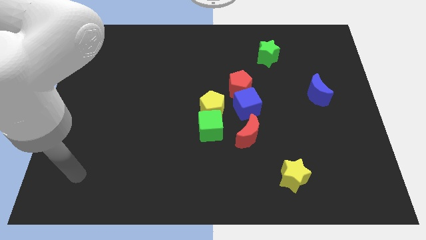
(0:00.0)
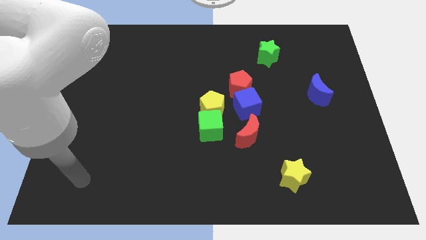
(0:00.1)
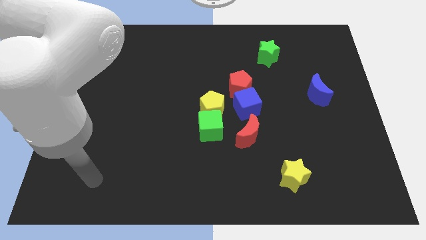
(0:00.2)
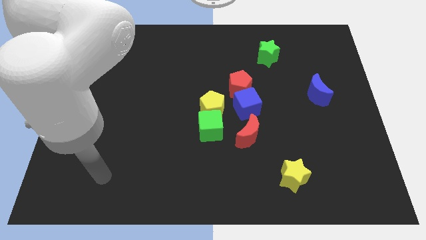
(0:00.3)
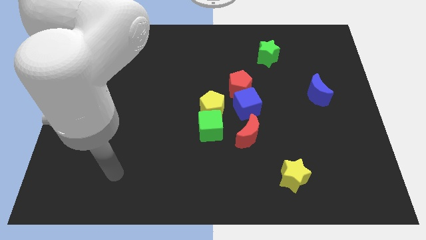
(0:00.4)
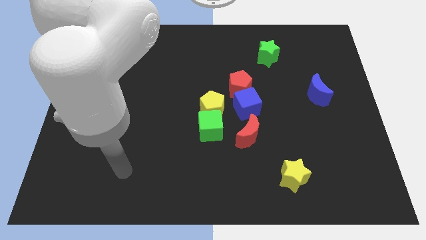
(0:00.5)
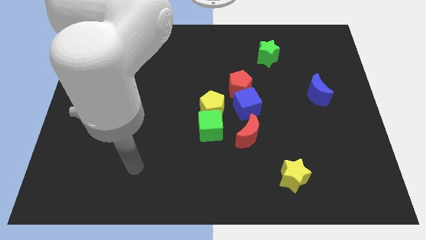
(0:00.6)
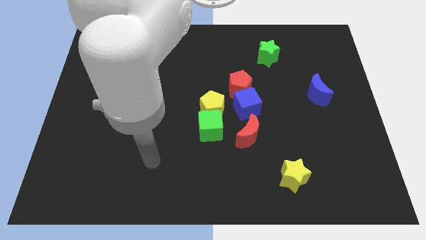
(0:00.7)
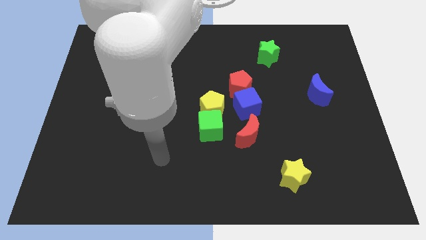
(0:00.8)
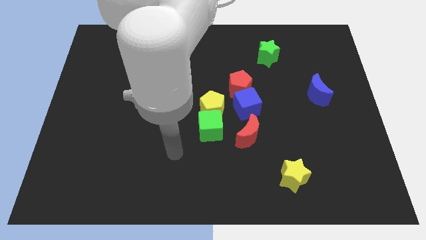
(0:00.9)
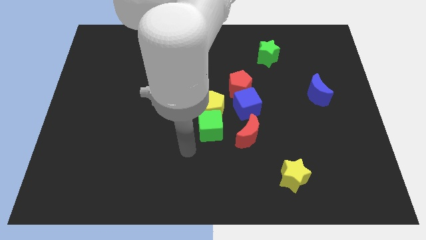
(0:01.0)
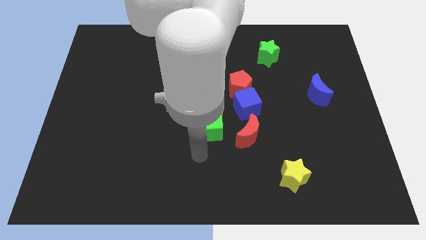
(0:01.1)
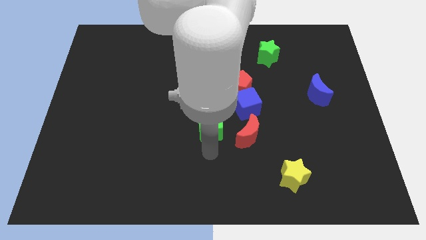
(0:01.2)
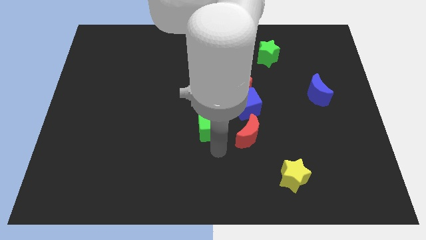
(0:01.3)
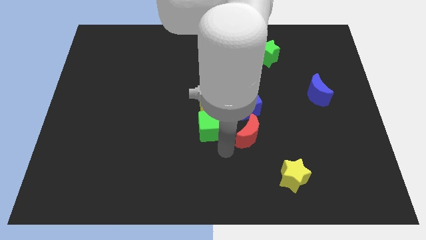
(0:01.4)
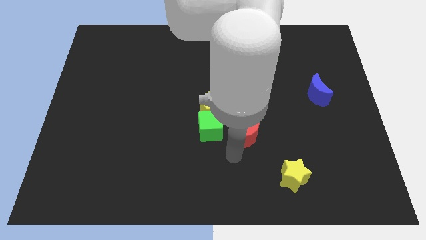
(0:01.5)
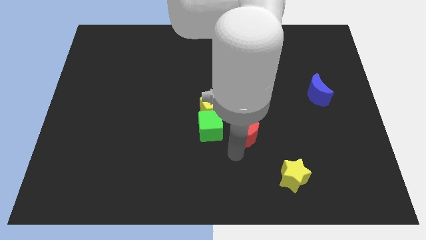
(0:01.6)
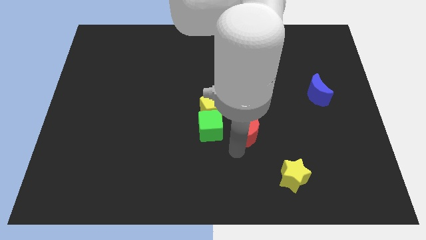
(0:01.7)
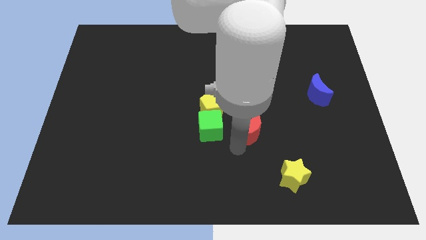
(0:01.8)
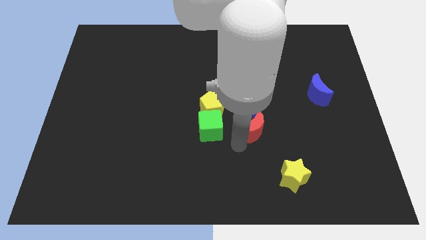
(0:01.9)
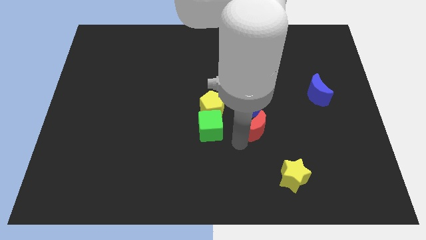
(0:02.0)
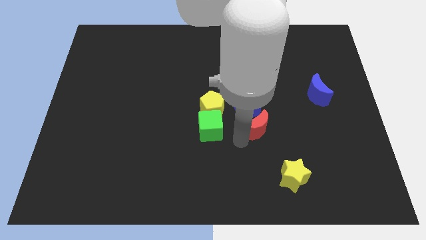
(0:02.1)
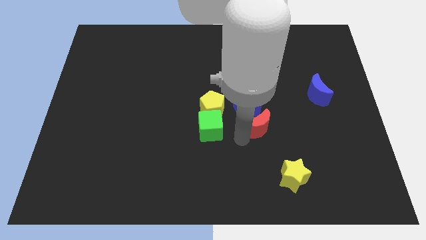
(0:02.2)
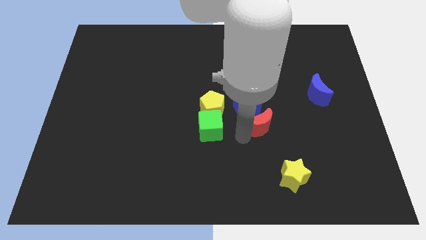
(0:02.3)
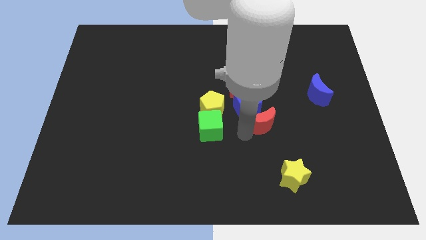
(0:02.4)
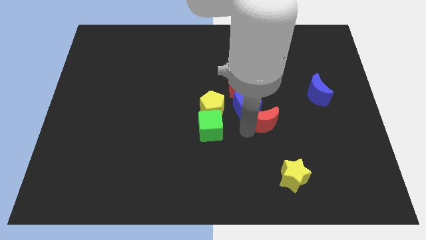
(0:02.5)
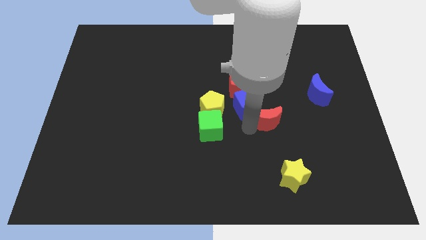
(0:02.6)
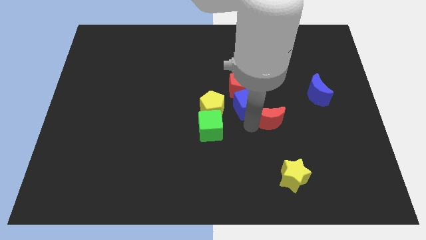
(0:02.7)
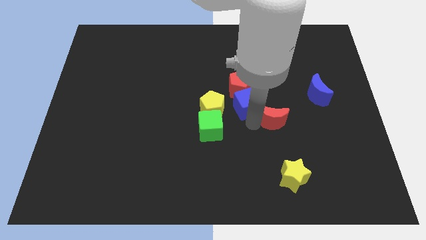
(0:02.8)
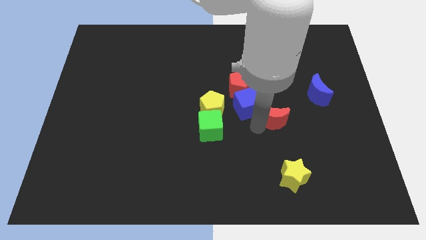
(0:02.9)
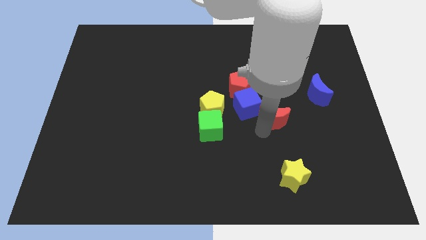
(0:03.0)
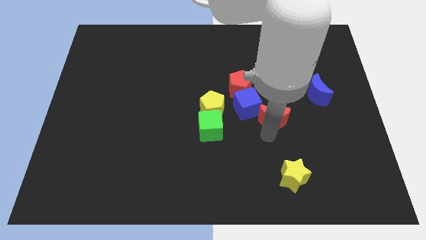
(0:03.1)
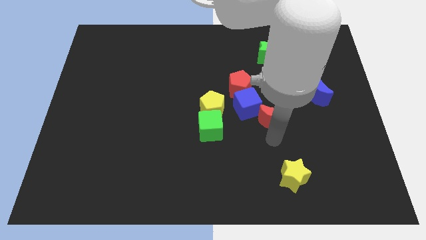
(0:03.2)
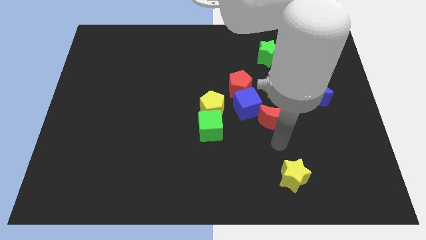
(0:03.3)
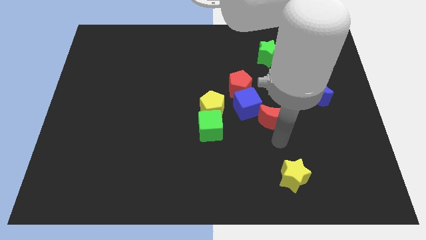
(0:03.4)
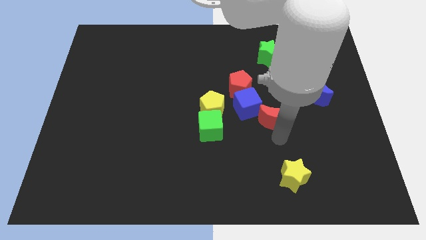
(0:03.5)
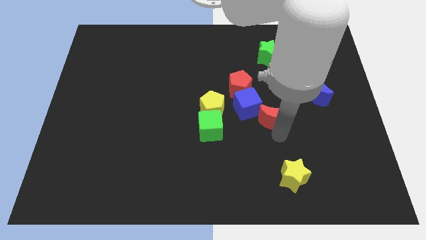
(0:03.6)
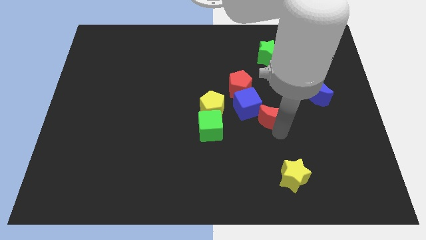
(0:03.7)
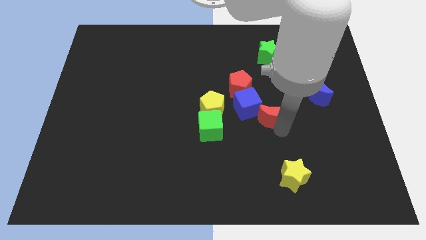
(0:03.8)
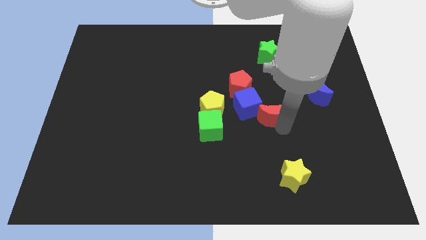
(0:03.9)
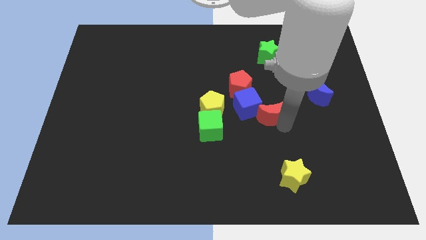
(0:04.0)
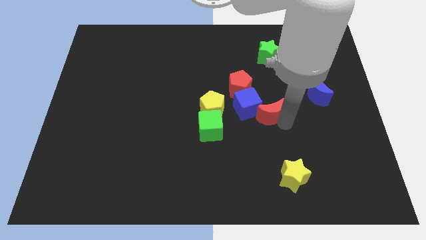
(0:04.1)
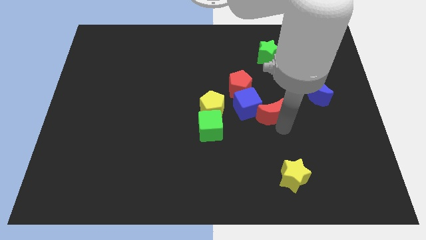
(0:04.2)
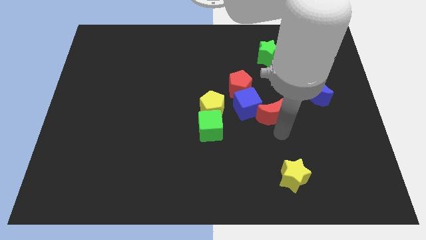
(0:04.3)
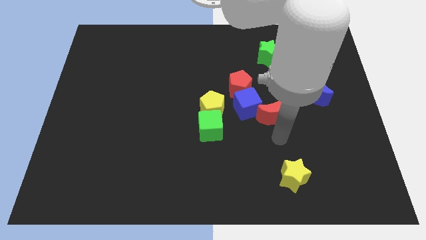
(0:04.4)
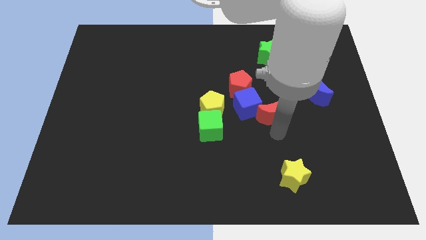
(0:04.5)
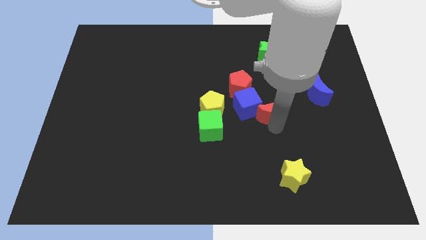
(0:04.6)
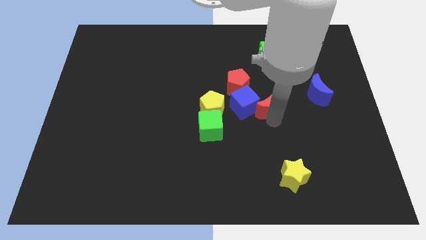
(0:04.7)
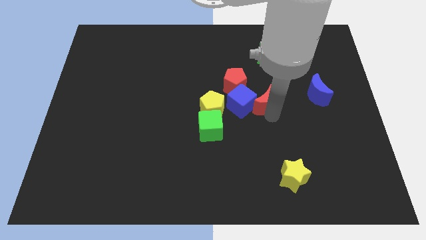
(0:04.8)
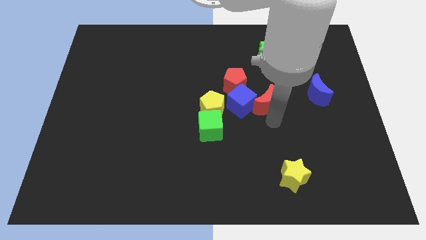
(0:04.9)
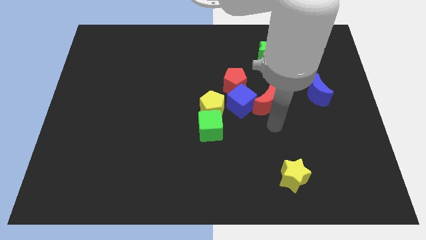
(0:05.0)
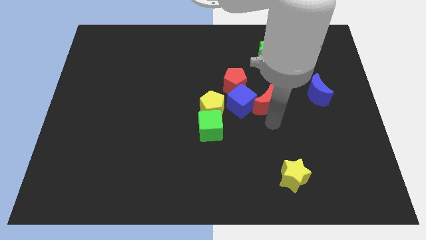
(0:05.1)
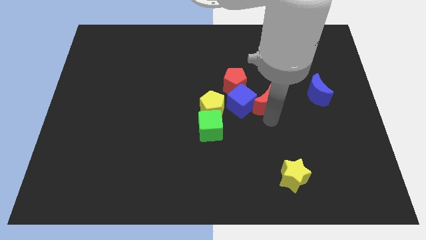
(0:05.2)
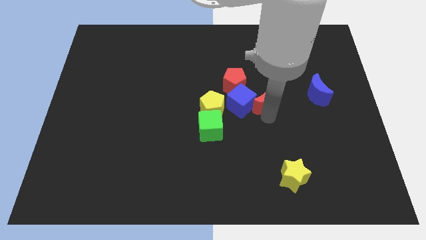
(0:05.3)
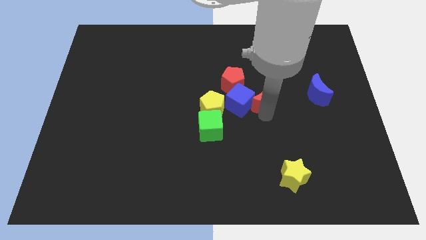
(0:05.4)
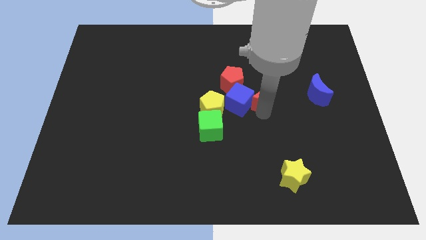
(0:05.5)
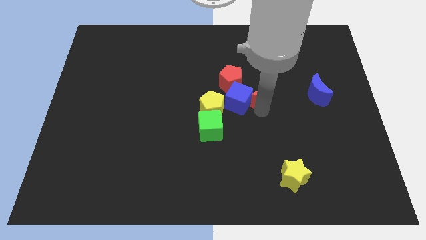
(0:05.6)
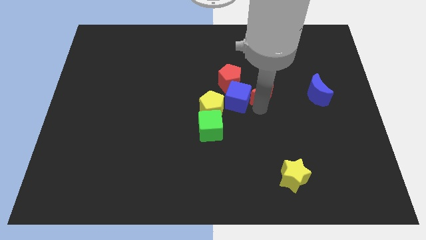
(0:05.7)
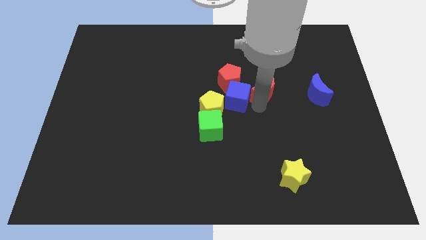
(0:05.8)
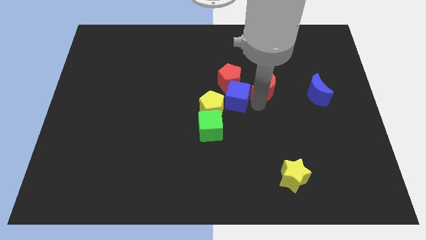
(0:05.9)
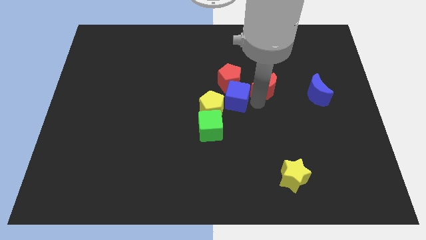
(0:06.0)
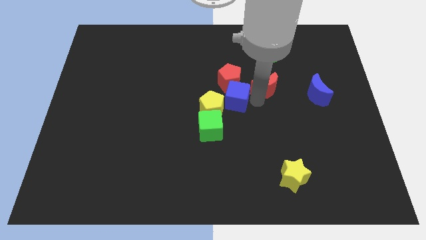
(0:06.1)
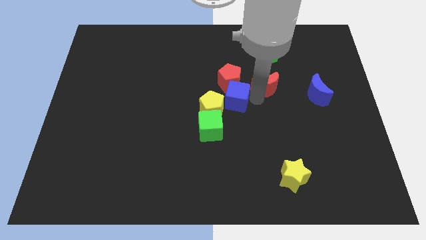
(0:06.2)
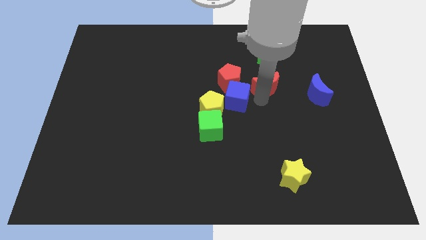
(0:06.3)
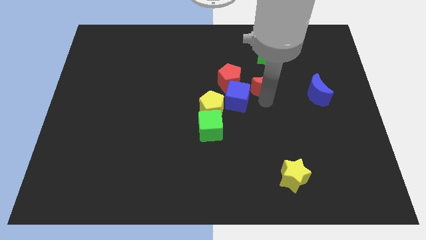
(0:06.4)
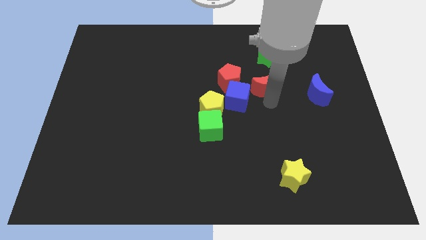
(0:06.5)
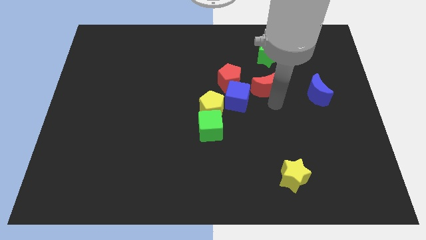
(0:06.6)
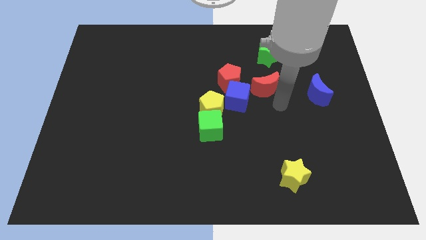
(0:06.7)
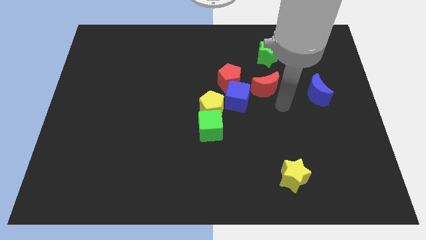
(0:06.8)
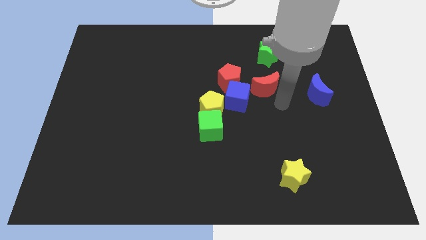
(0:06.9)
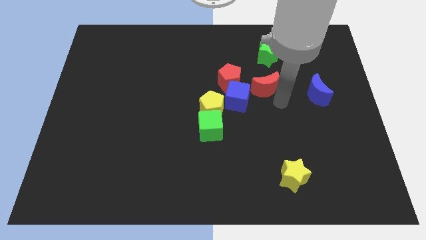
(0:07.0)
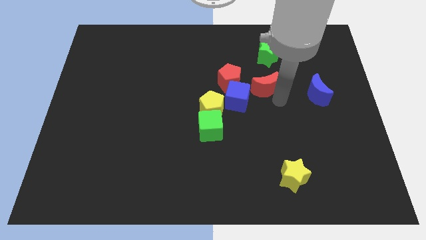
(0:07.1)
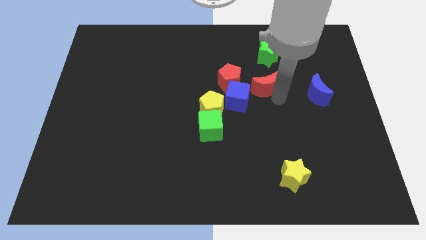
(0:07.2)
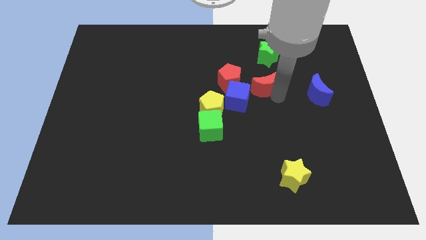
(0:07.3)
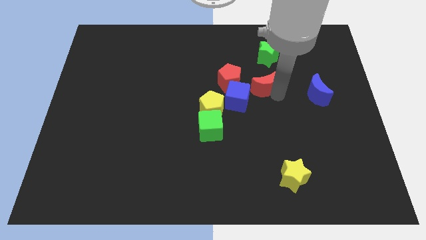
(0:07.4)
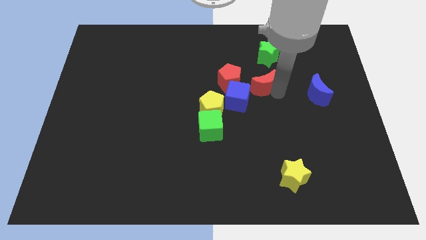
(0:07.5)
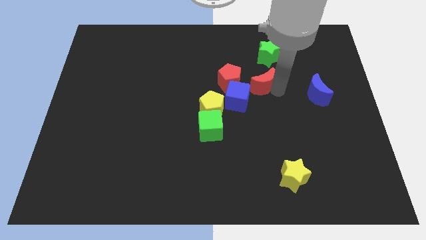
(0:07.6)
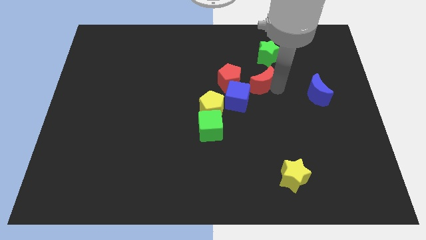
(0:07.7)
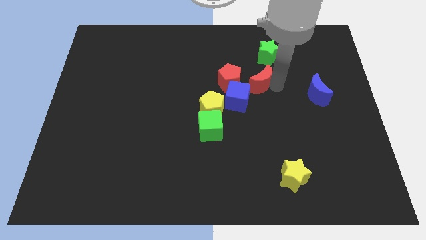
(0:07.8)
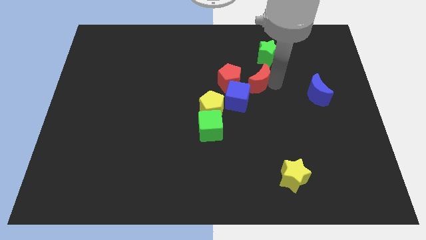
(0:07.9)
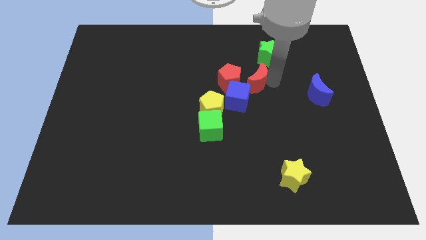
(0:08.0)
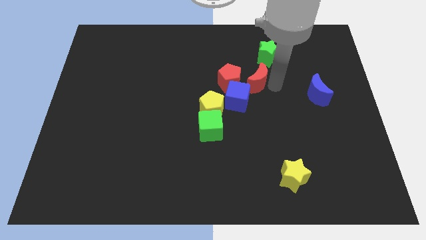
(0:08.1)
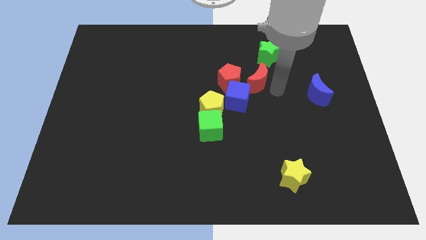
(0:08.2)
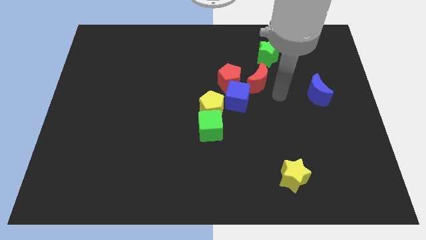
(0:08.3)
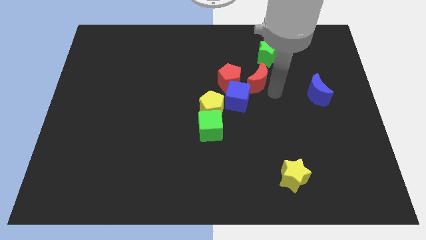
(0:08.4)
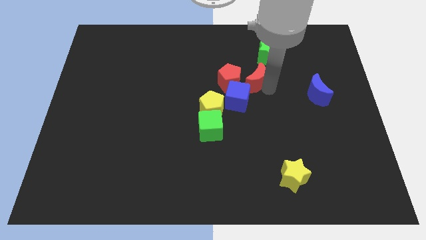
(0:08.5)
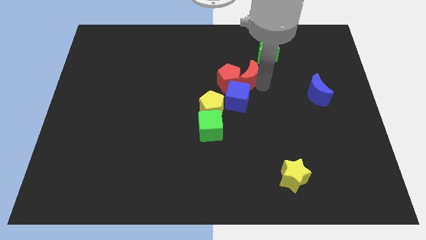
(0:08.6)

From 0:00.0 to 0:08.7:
slide the red moon to the top of the blue cube
